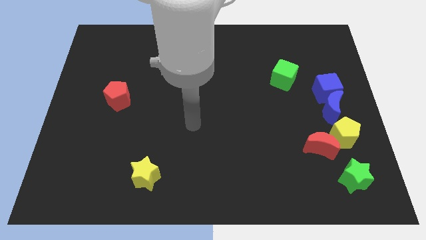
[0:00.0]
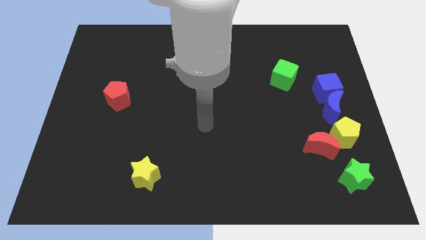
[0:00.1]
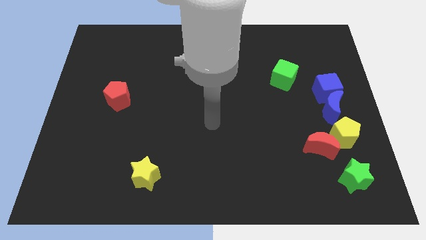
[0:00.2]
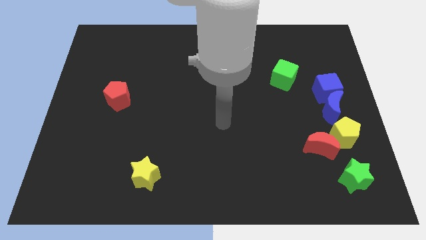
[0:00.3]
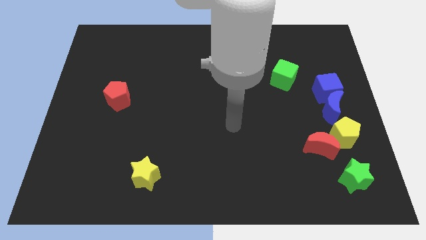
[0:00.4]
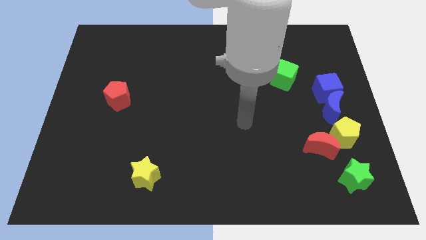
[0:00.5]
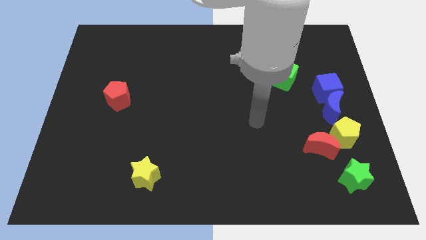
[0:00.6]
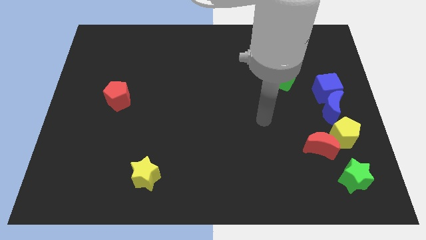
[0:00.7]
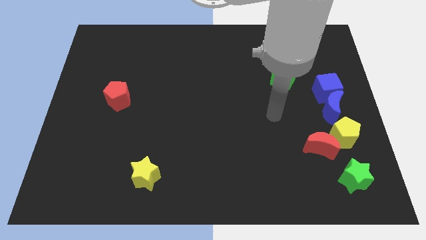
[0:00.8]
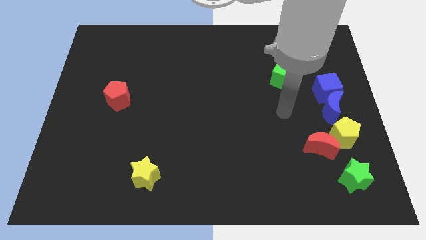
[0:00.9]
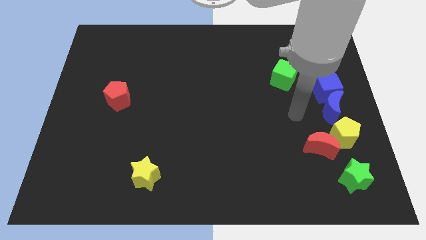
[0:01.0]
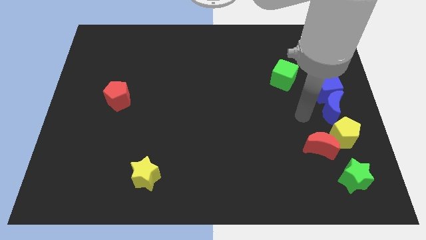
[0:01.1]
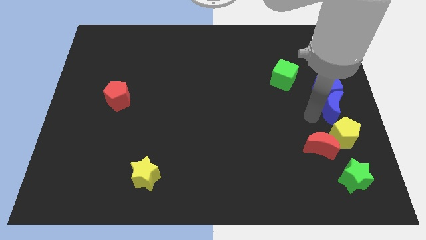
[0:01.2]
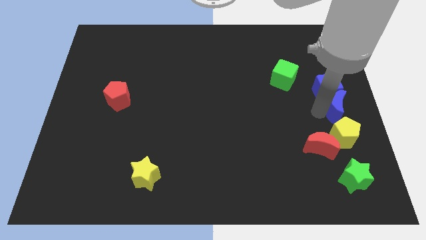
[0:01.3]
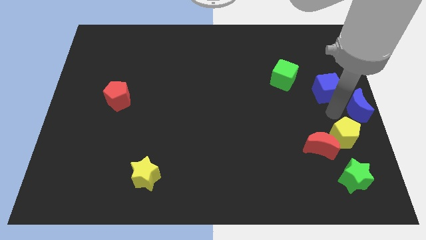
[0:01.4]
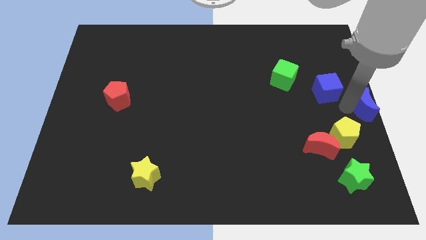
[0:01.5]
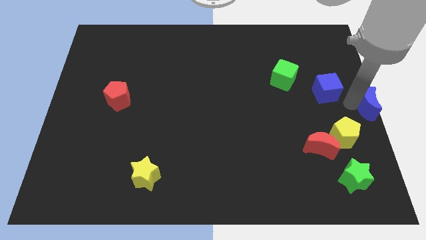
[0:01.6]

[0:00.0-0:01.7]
separate the blue cube from the blue moon

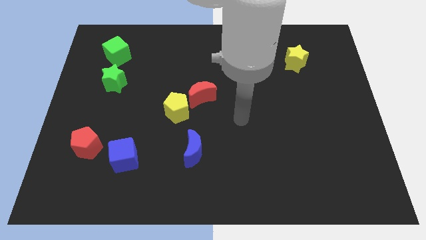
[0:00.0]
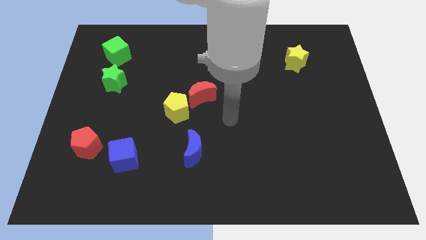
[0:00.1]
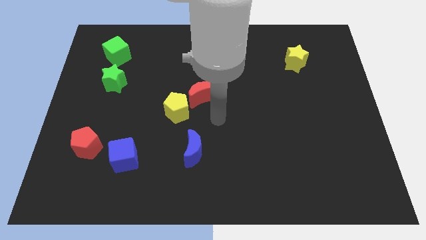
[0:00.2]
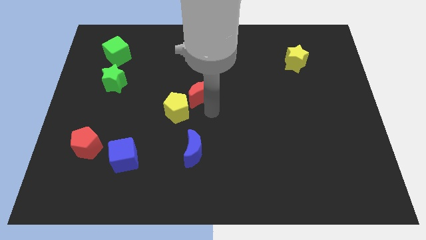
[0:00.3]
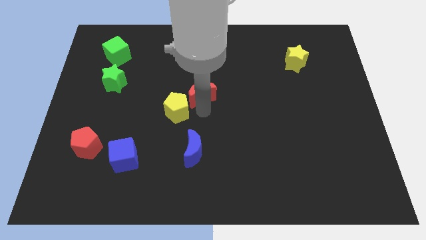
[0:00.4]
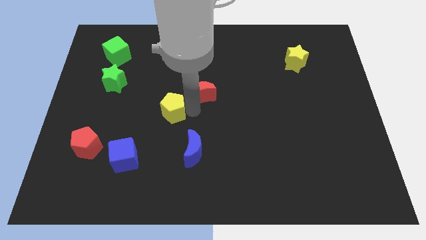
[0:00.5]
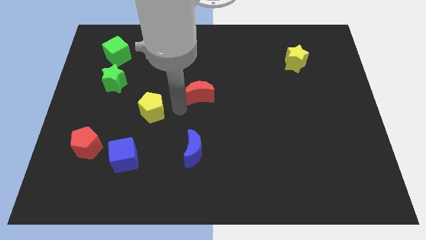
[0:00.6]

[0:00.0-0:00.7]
move the red moon away from the yellow pentagon

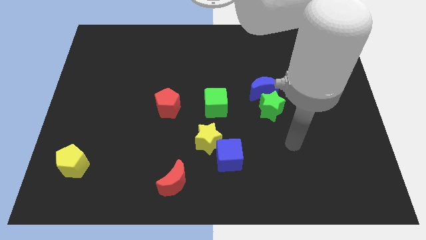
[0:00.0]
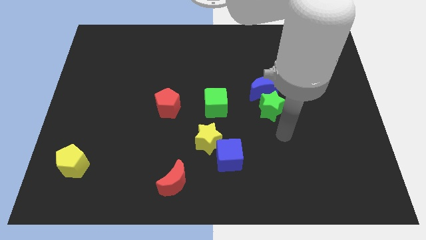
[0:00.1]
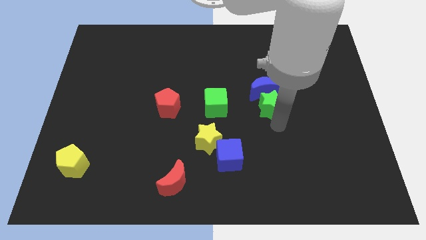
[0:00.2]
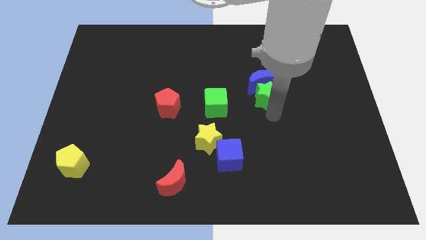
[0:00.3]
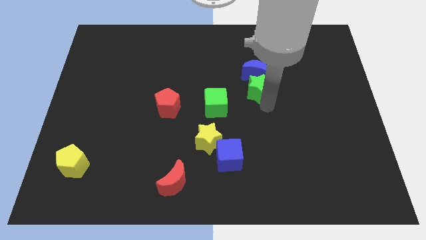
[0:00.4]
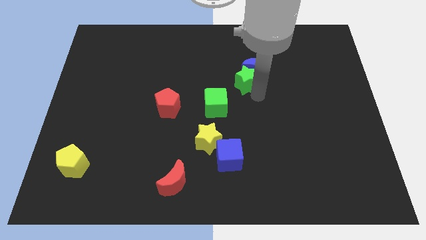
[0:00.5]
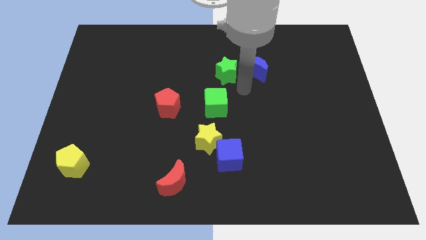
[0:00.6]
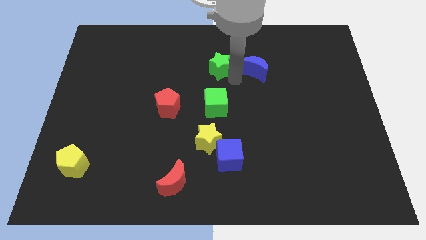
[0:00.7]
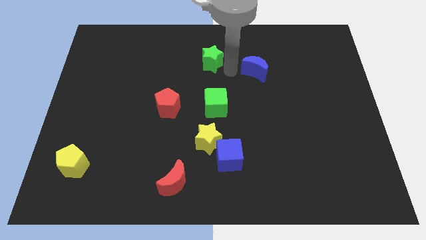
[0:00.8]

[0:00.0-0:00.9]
separate the blue moon from the green star

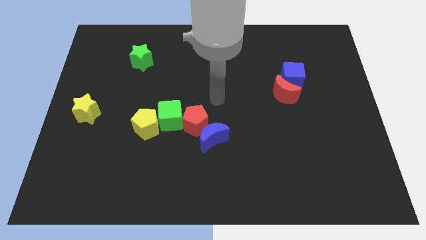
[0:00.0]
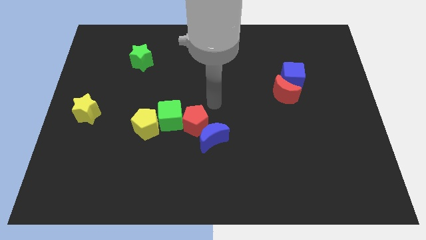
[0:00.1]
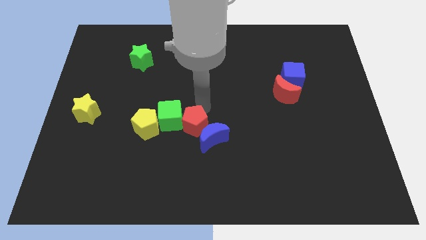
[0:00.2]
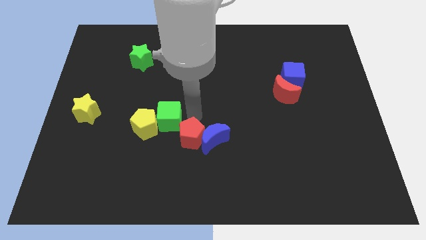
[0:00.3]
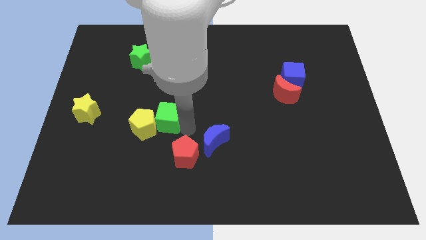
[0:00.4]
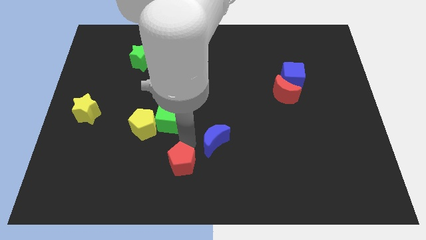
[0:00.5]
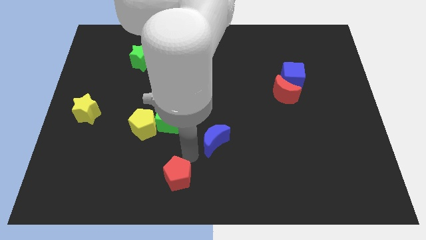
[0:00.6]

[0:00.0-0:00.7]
move the blue moon away from the red pentagon

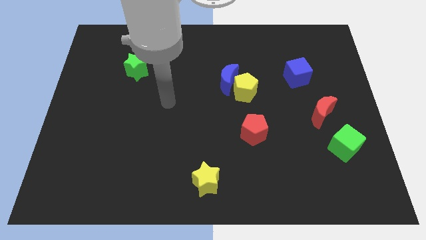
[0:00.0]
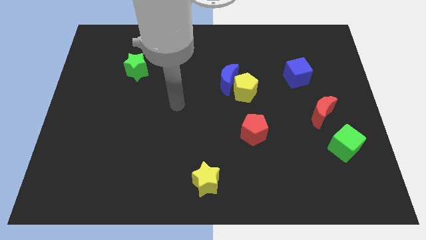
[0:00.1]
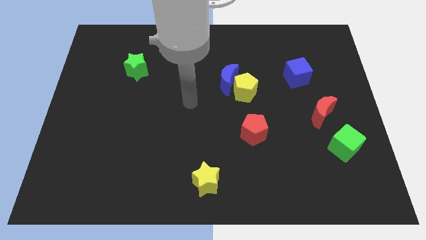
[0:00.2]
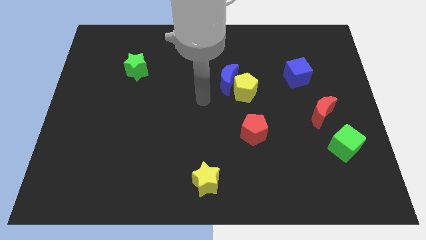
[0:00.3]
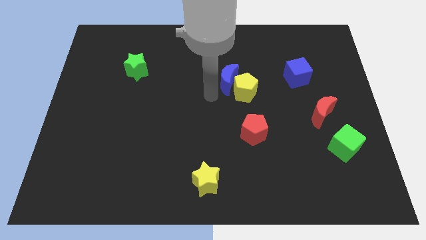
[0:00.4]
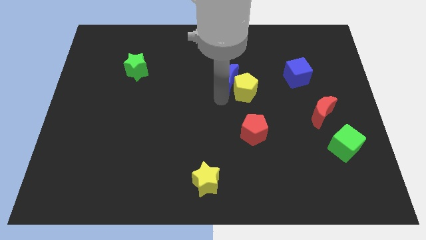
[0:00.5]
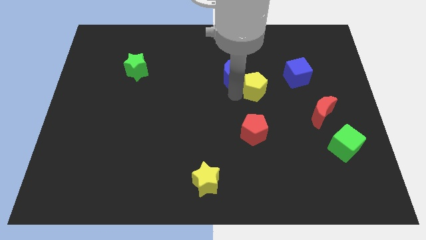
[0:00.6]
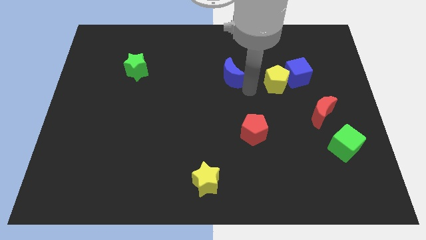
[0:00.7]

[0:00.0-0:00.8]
separate the blue moon from the yellow pentagon

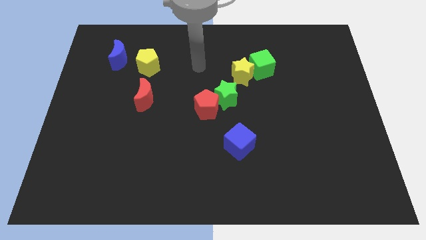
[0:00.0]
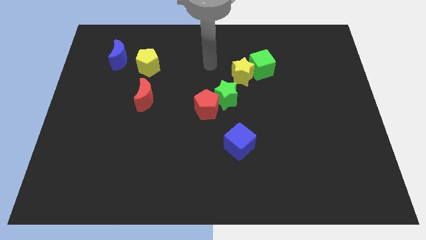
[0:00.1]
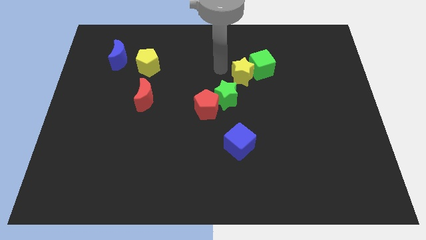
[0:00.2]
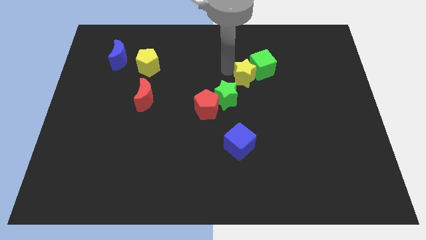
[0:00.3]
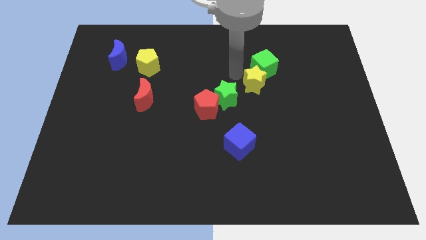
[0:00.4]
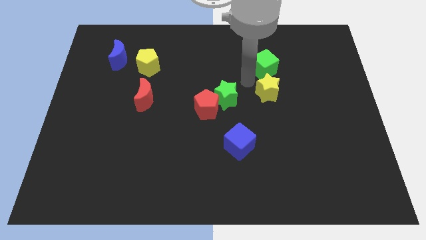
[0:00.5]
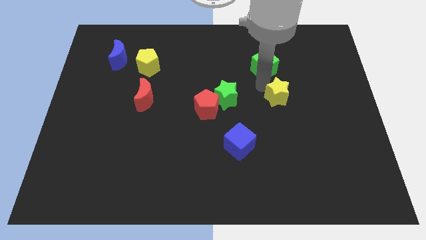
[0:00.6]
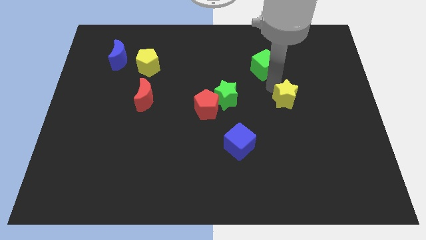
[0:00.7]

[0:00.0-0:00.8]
pull the green cube apart from the yellow star

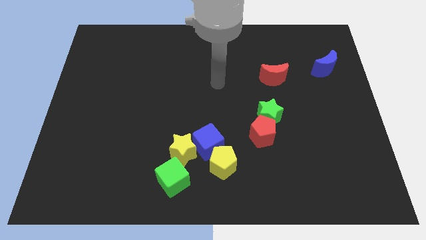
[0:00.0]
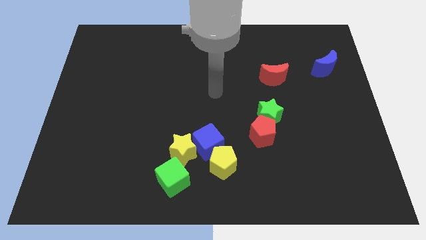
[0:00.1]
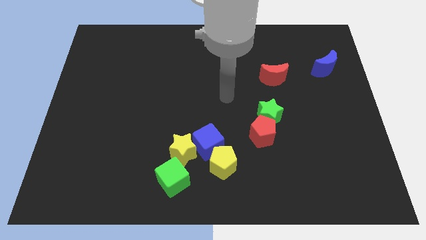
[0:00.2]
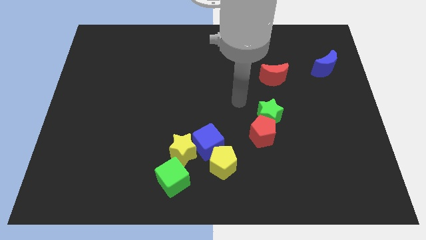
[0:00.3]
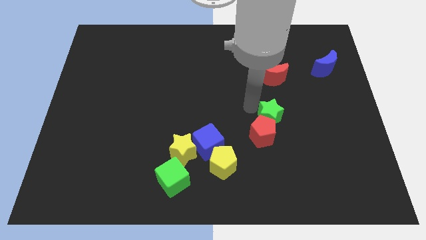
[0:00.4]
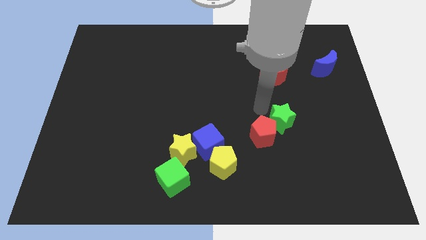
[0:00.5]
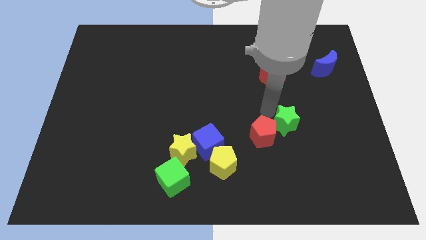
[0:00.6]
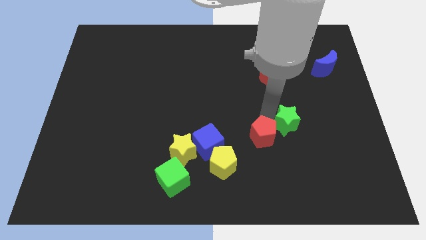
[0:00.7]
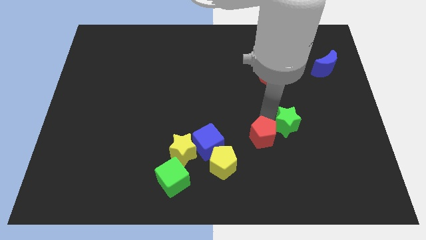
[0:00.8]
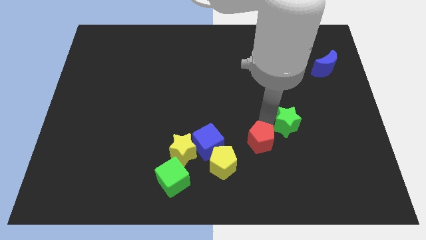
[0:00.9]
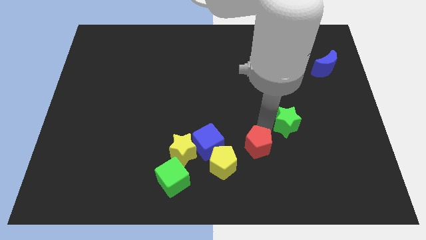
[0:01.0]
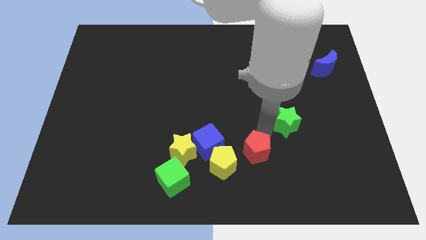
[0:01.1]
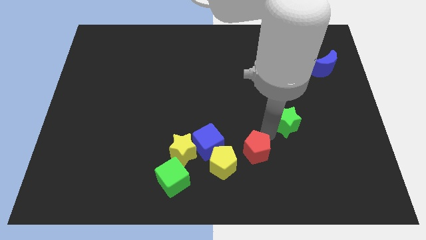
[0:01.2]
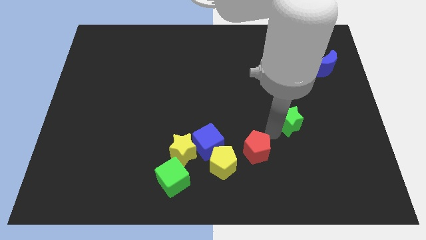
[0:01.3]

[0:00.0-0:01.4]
pull the red pentagon apart from the green star

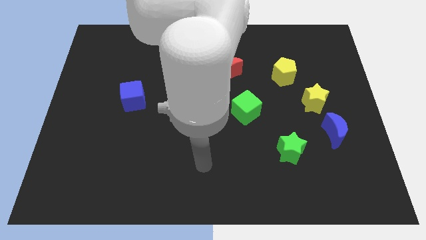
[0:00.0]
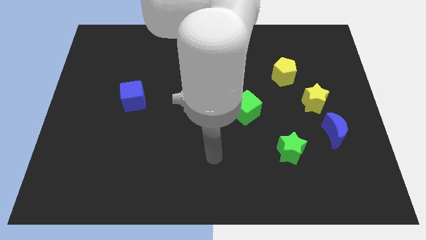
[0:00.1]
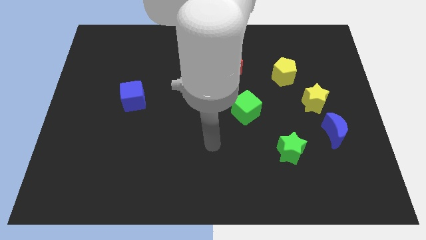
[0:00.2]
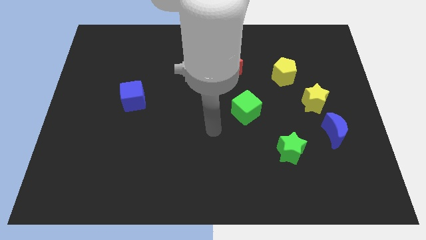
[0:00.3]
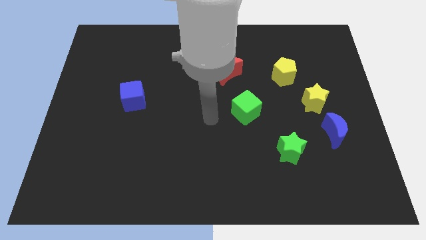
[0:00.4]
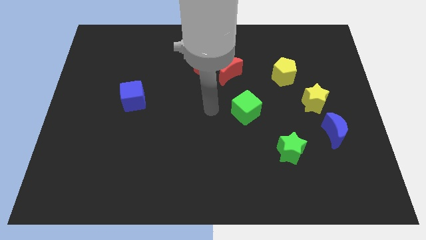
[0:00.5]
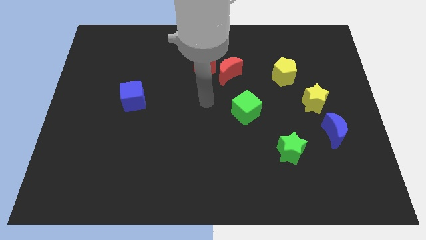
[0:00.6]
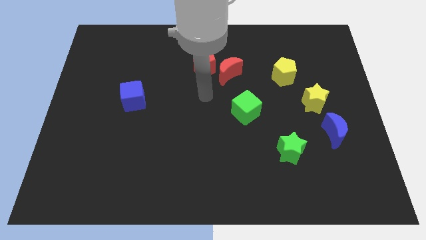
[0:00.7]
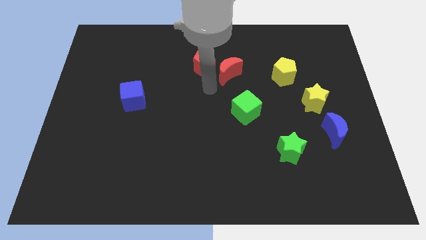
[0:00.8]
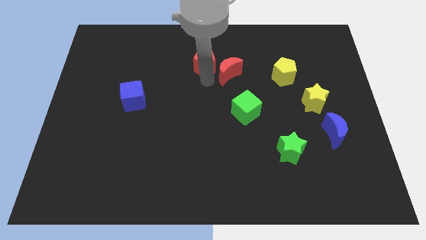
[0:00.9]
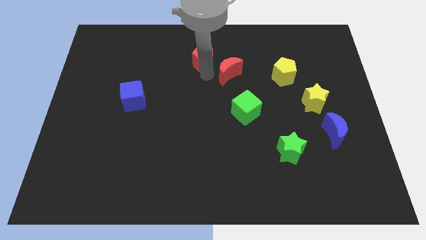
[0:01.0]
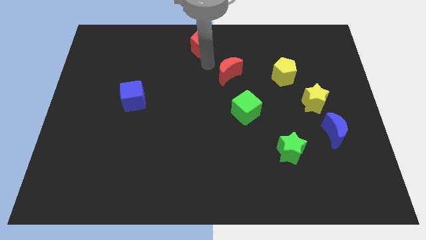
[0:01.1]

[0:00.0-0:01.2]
move the red moon away from the red pentagon

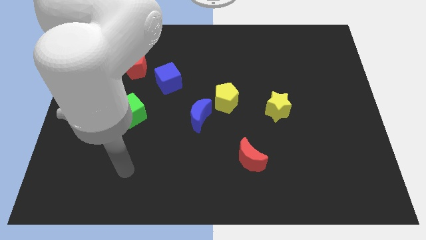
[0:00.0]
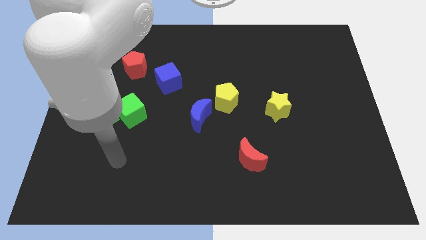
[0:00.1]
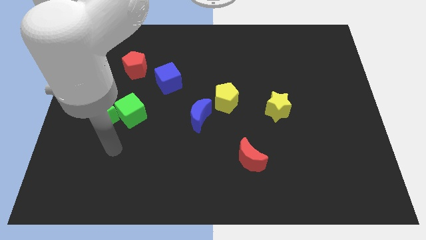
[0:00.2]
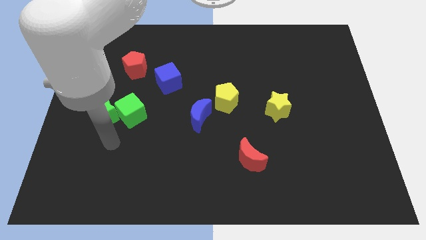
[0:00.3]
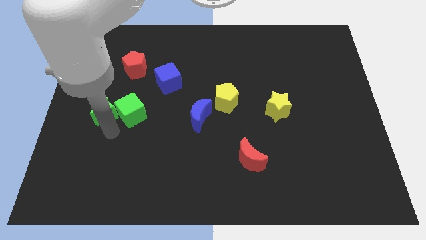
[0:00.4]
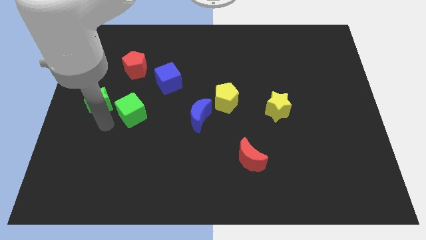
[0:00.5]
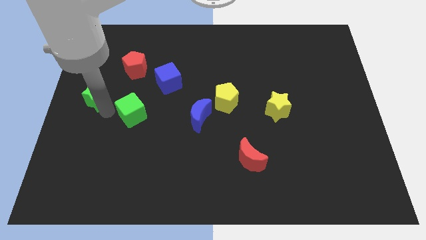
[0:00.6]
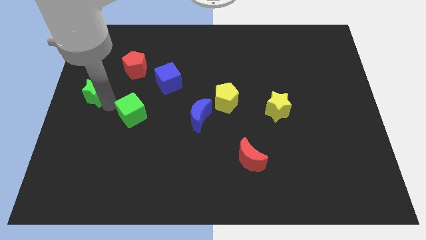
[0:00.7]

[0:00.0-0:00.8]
move the green cube away from the green star

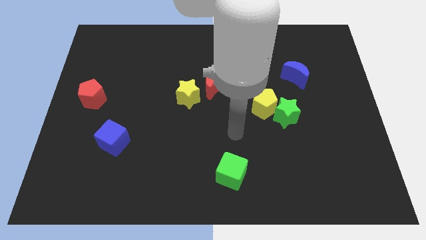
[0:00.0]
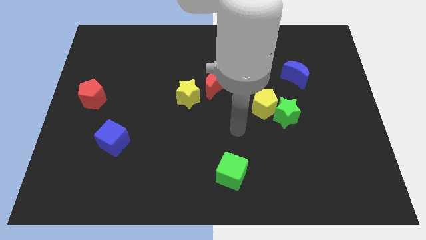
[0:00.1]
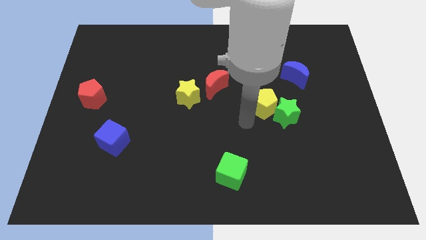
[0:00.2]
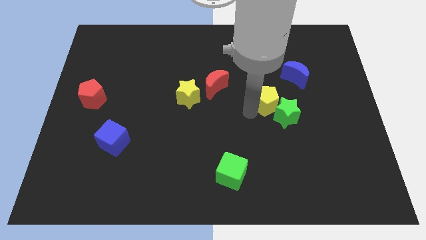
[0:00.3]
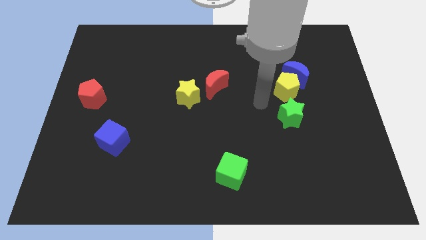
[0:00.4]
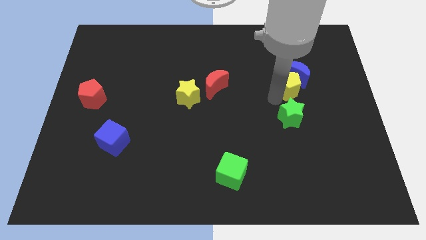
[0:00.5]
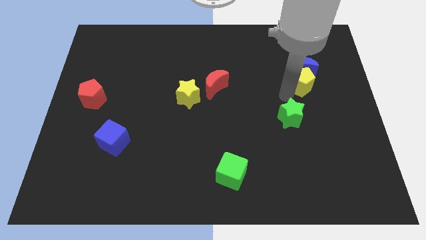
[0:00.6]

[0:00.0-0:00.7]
separate the green star from the yellow pentagon
